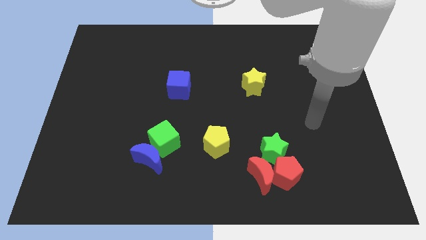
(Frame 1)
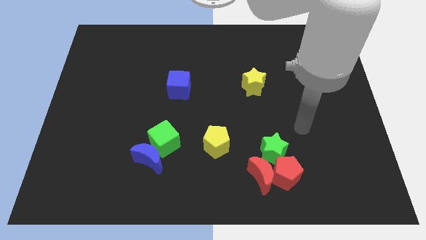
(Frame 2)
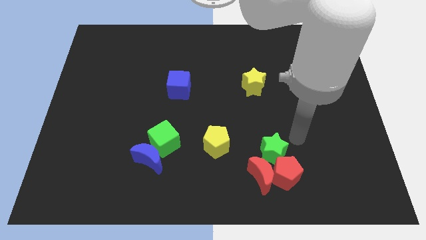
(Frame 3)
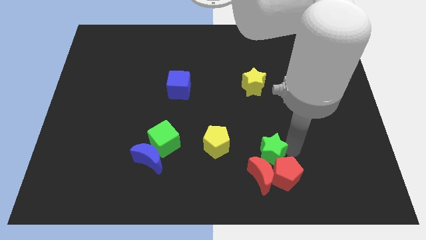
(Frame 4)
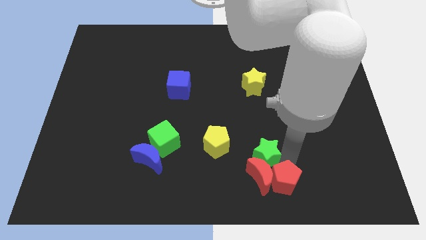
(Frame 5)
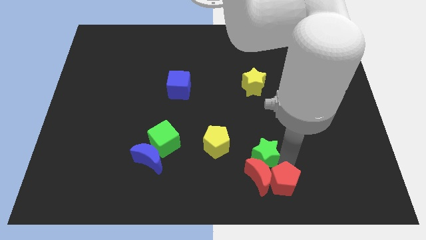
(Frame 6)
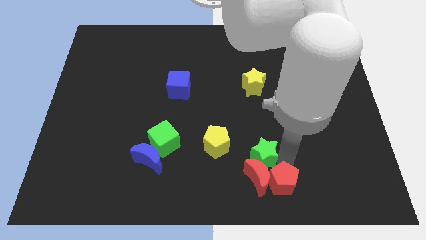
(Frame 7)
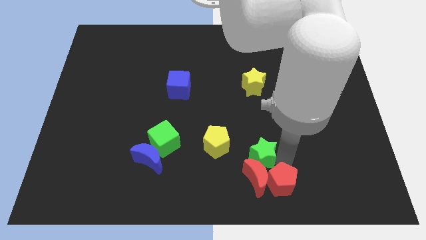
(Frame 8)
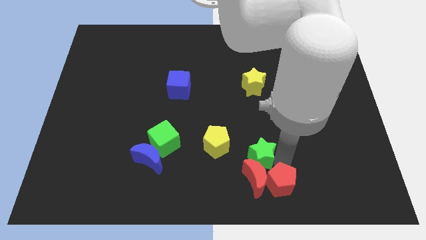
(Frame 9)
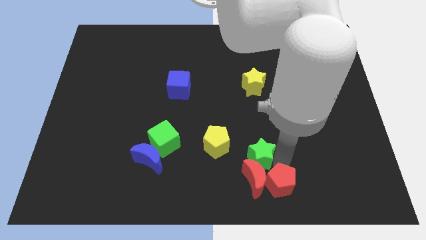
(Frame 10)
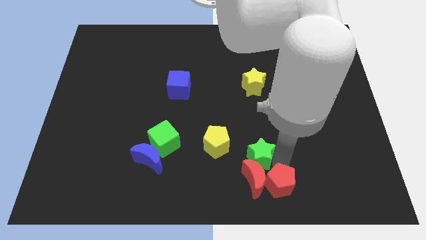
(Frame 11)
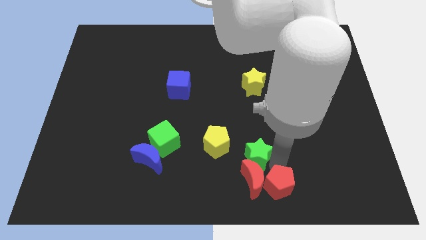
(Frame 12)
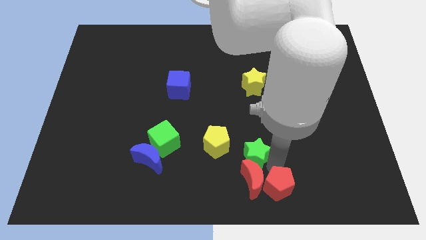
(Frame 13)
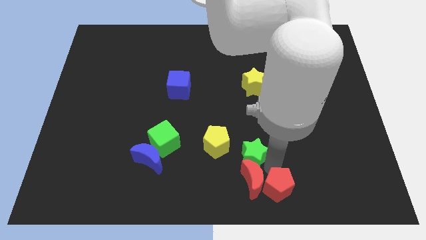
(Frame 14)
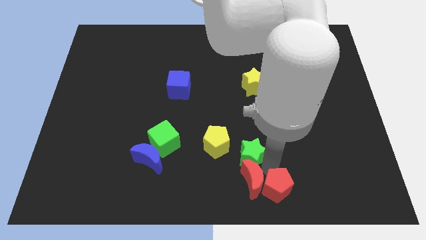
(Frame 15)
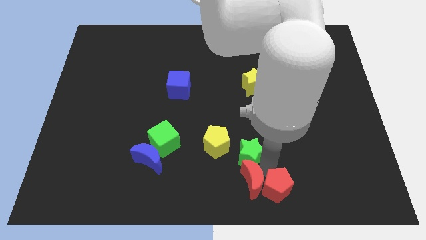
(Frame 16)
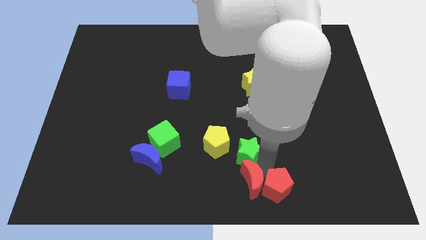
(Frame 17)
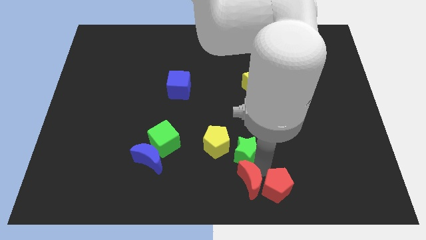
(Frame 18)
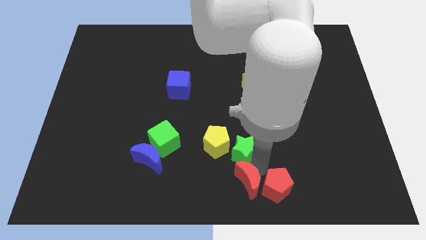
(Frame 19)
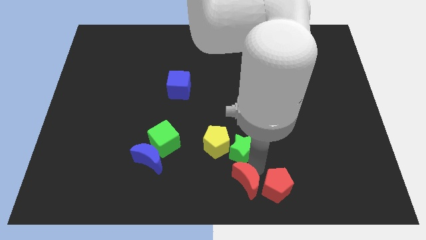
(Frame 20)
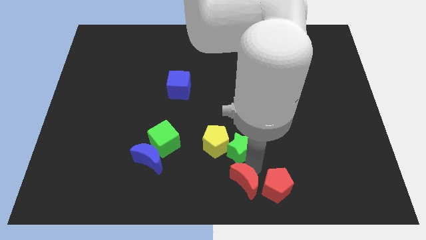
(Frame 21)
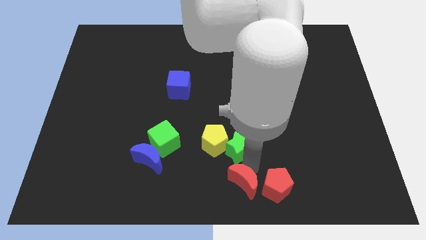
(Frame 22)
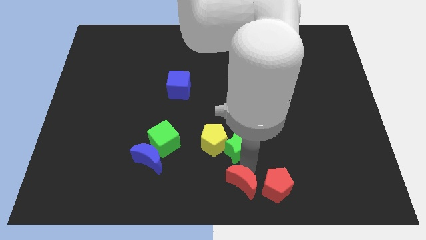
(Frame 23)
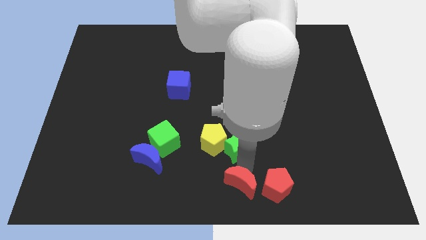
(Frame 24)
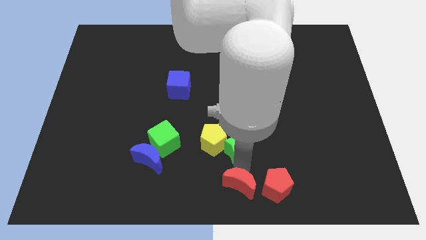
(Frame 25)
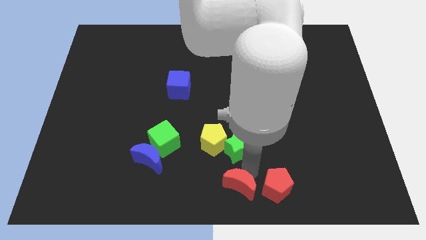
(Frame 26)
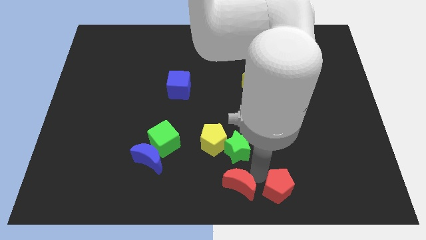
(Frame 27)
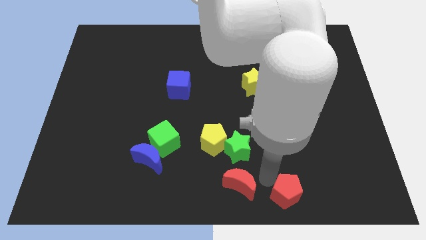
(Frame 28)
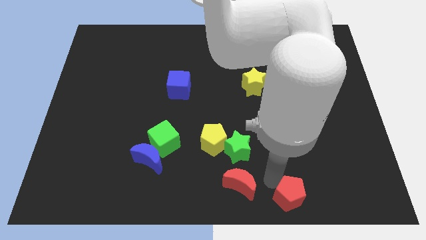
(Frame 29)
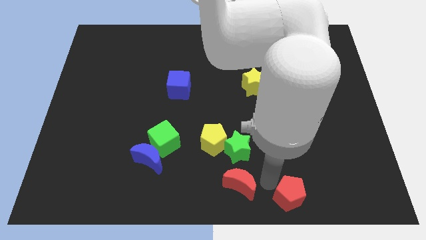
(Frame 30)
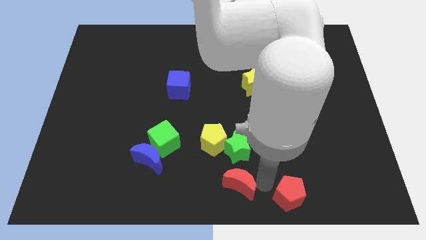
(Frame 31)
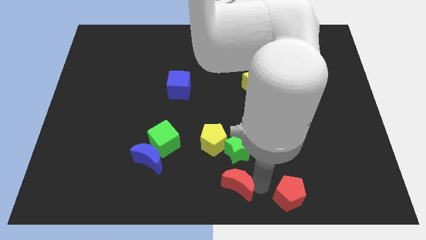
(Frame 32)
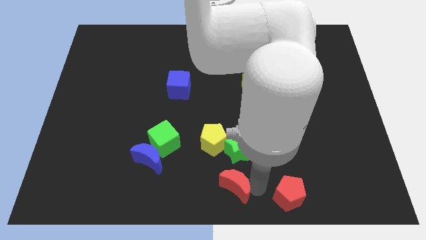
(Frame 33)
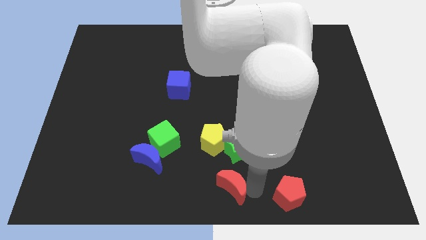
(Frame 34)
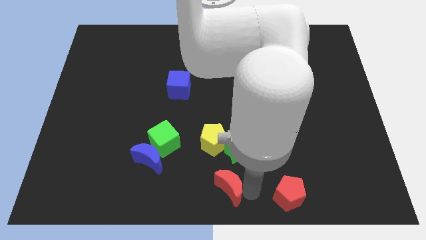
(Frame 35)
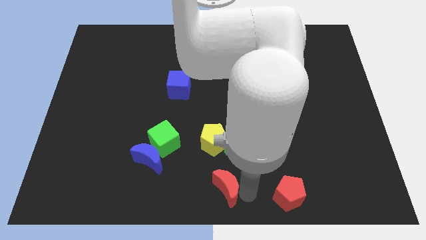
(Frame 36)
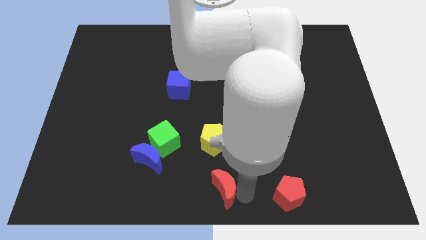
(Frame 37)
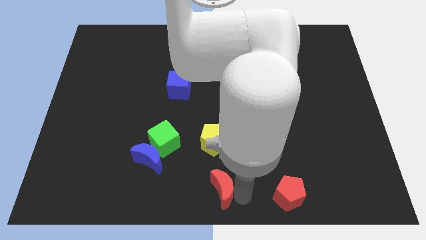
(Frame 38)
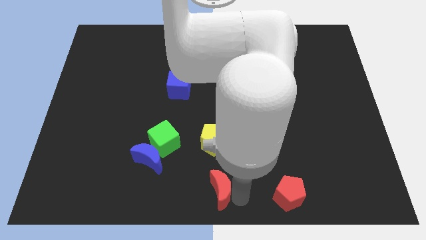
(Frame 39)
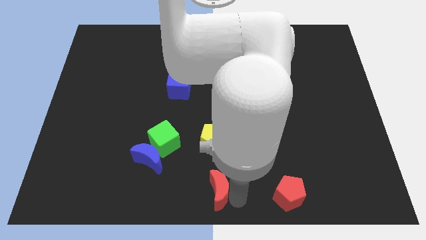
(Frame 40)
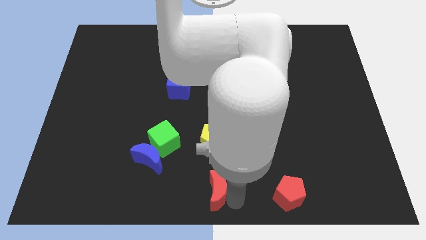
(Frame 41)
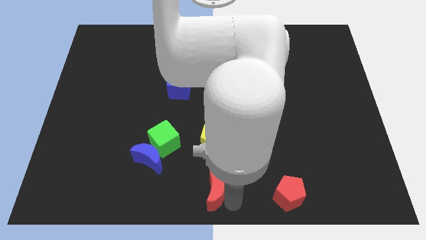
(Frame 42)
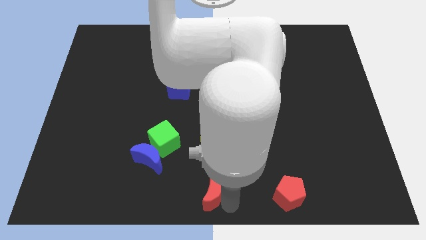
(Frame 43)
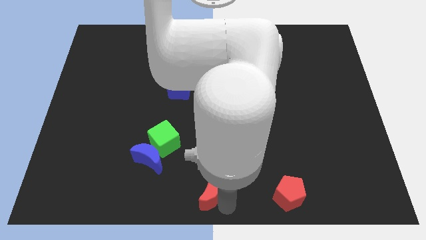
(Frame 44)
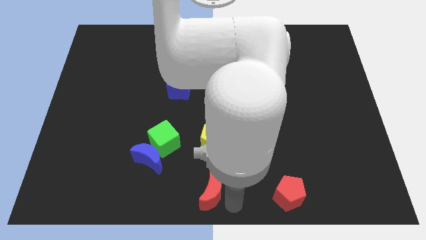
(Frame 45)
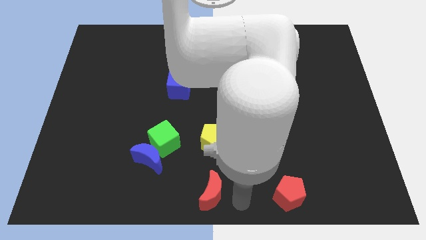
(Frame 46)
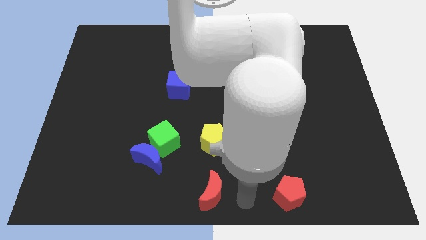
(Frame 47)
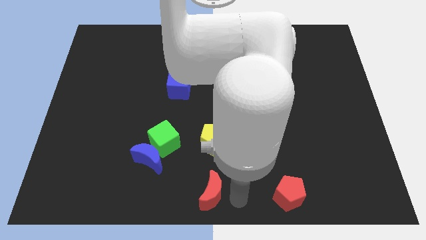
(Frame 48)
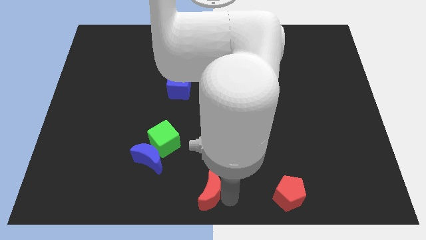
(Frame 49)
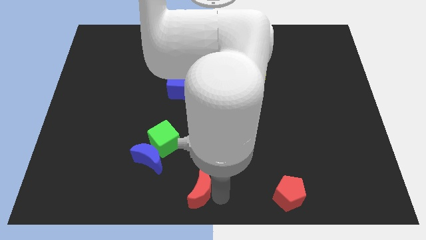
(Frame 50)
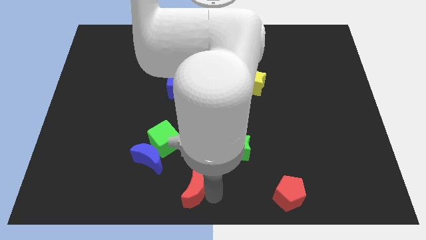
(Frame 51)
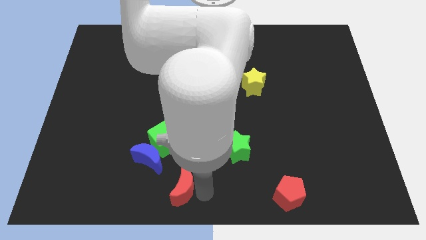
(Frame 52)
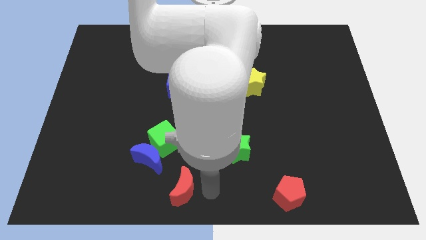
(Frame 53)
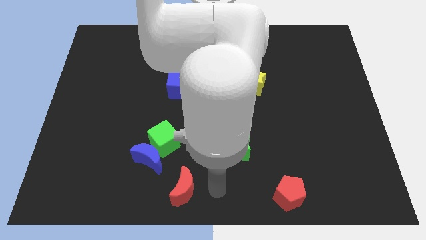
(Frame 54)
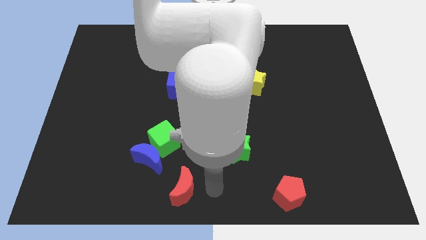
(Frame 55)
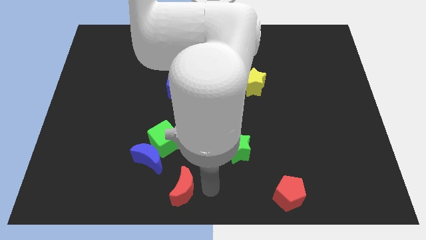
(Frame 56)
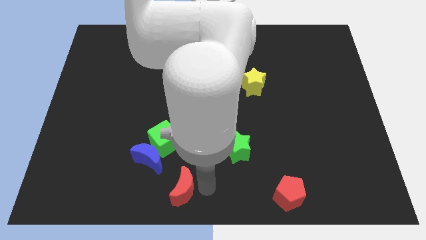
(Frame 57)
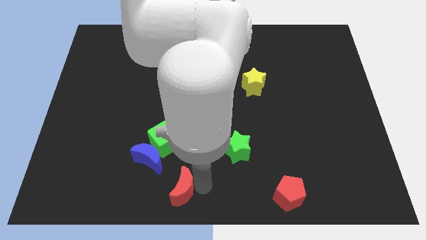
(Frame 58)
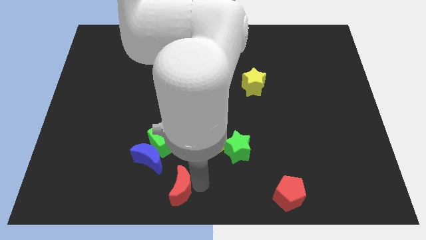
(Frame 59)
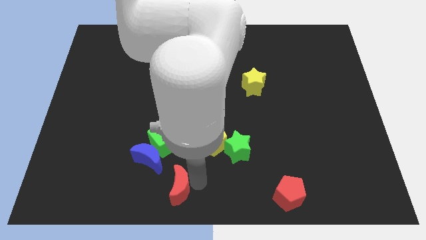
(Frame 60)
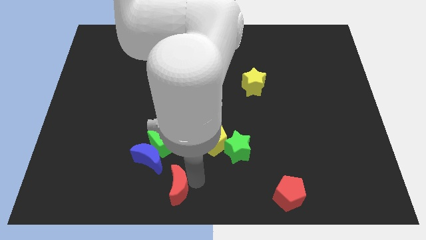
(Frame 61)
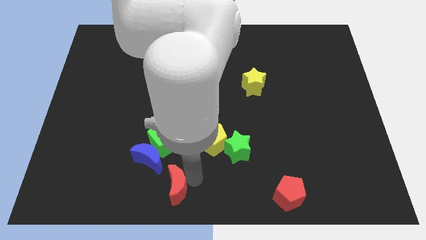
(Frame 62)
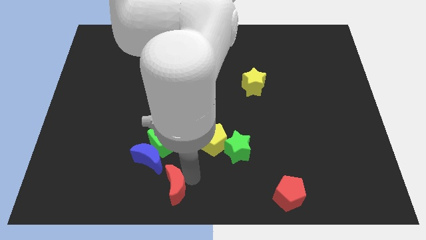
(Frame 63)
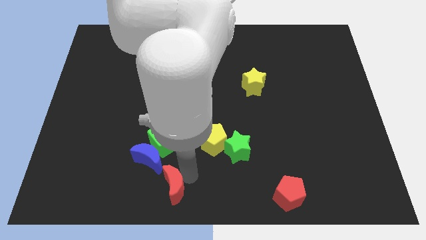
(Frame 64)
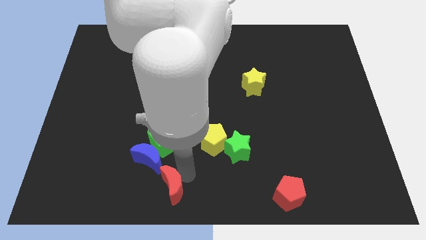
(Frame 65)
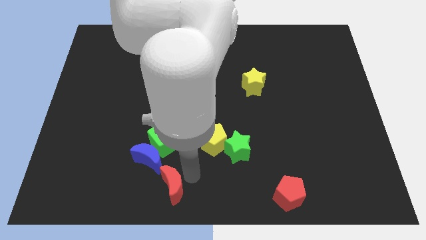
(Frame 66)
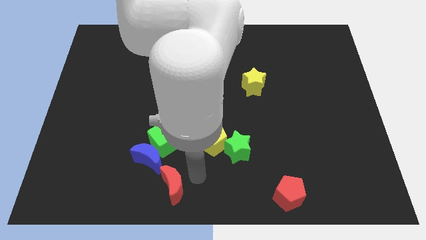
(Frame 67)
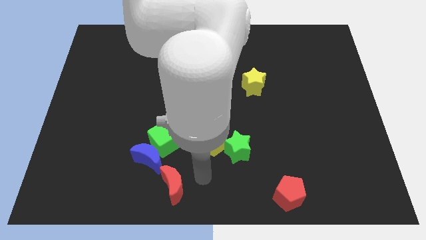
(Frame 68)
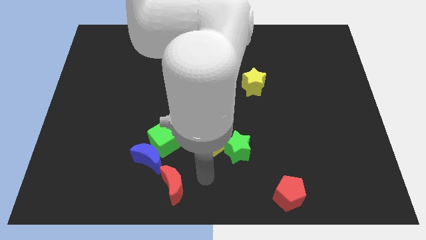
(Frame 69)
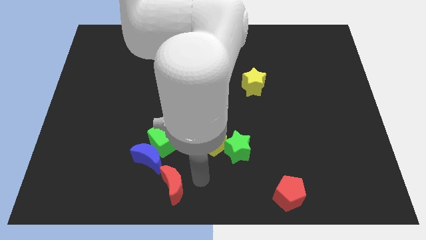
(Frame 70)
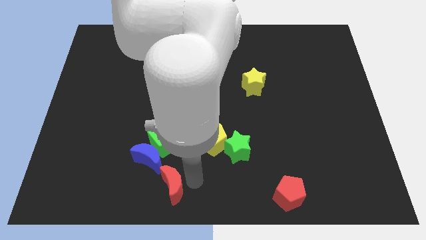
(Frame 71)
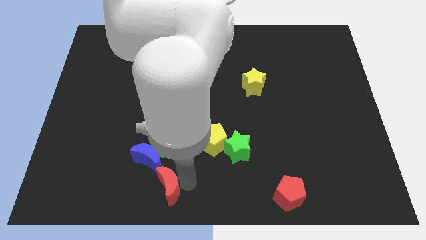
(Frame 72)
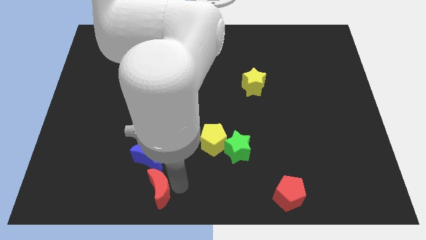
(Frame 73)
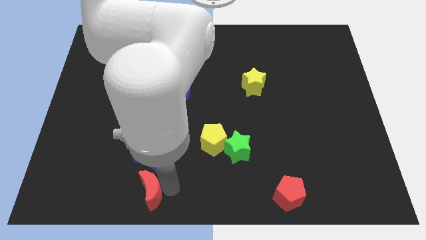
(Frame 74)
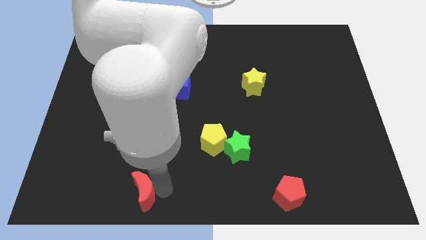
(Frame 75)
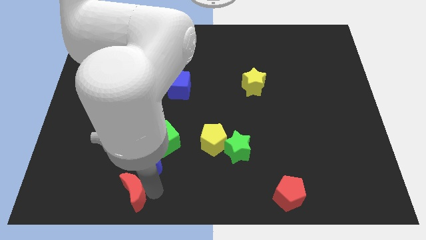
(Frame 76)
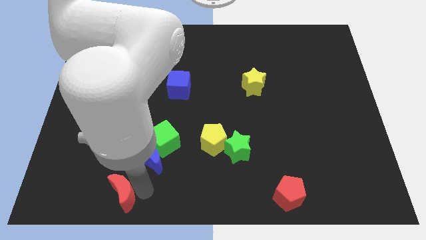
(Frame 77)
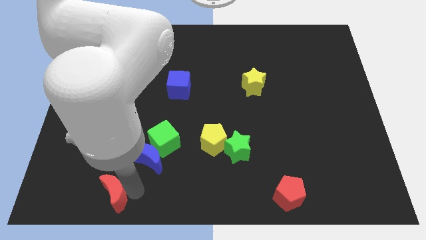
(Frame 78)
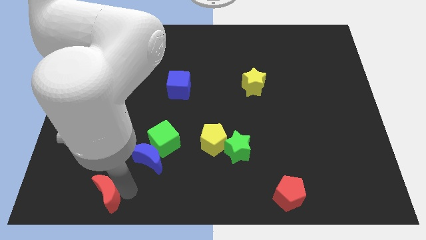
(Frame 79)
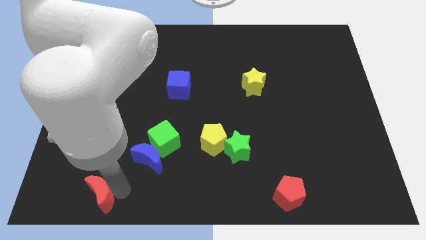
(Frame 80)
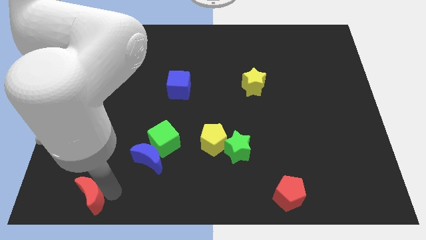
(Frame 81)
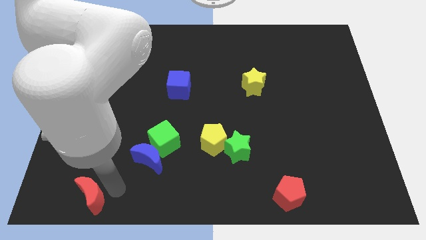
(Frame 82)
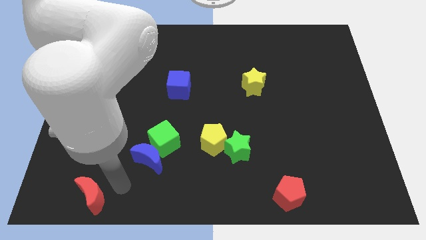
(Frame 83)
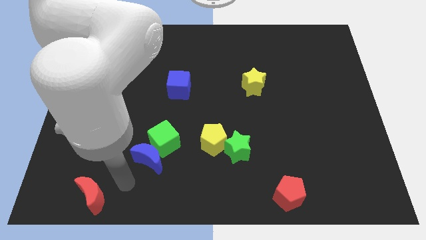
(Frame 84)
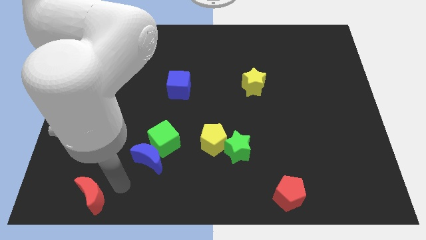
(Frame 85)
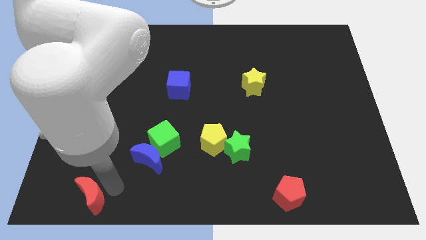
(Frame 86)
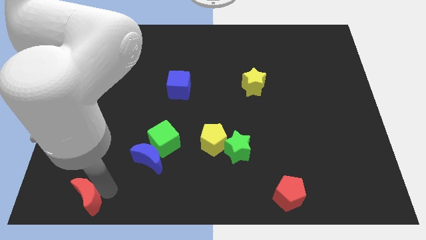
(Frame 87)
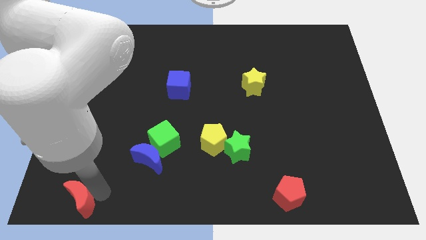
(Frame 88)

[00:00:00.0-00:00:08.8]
push the red moon to the bottom left of the board
